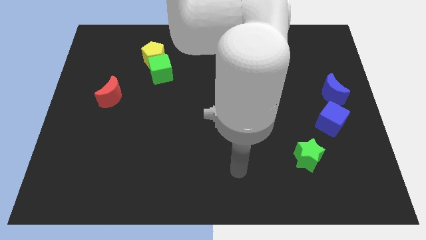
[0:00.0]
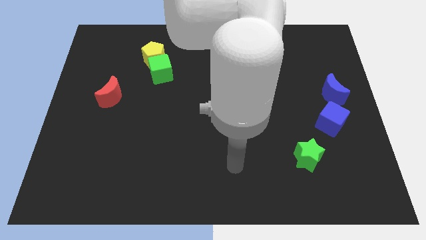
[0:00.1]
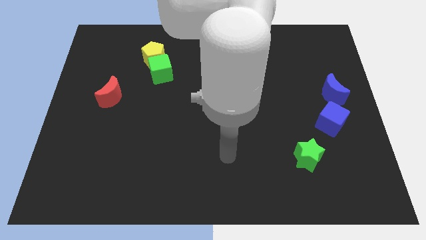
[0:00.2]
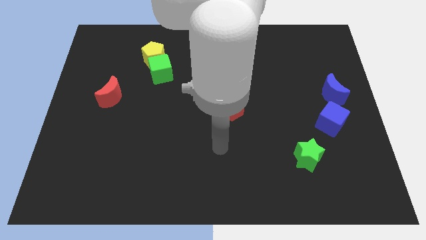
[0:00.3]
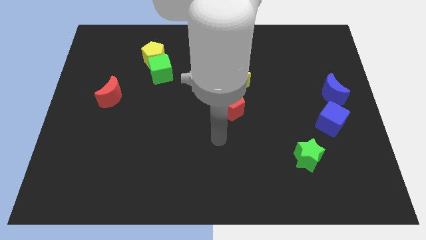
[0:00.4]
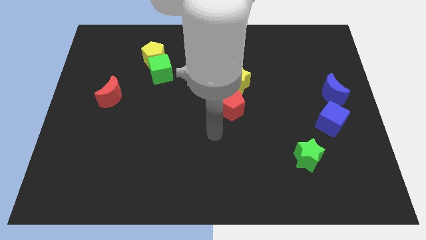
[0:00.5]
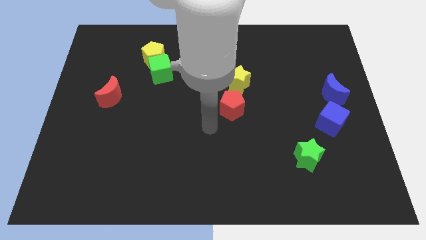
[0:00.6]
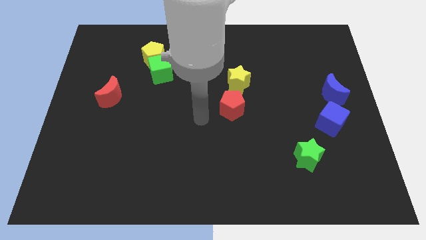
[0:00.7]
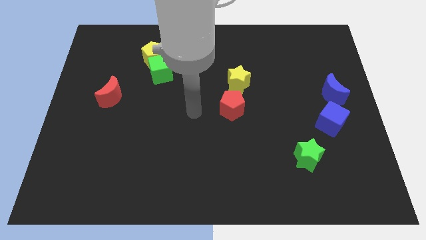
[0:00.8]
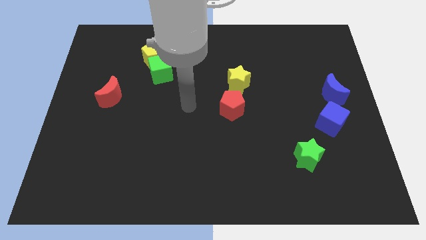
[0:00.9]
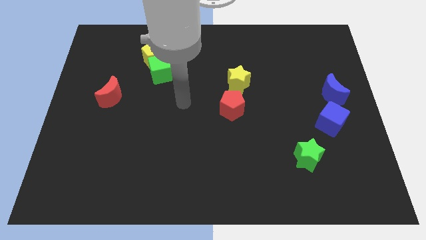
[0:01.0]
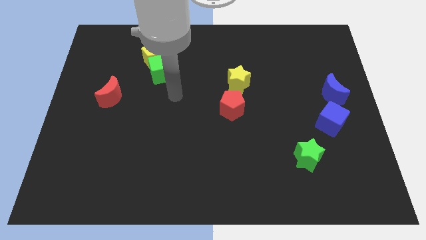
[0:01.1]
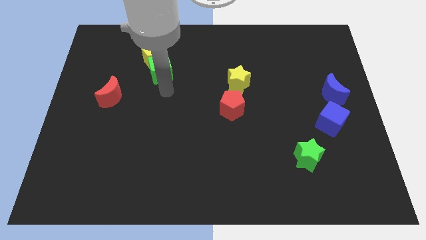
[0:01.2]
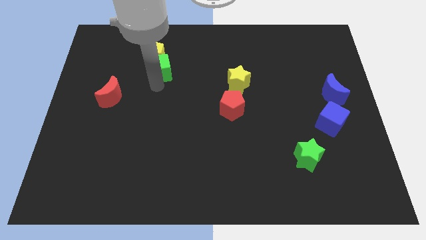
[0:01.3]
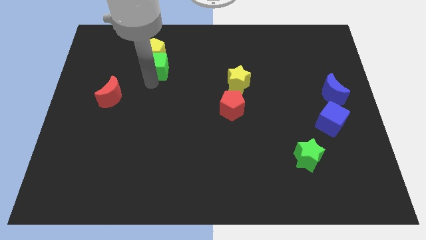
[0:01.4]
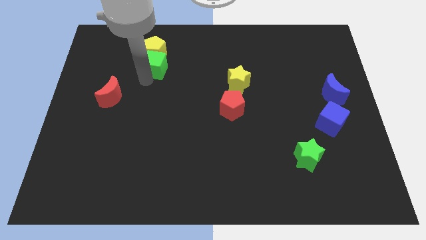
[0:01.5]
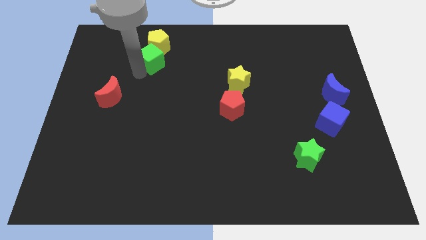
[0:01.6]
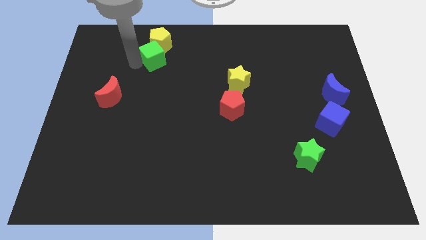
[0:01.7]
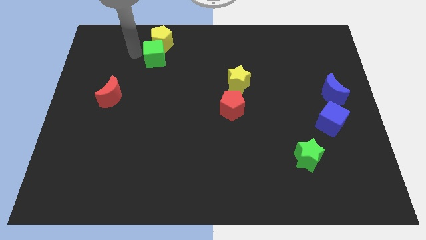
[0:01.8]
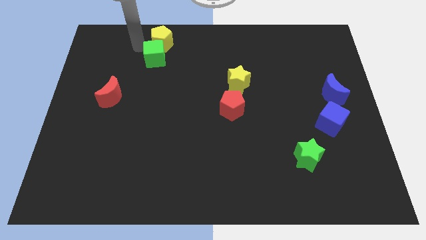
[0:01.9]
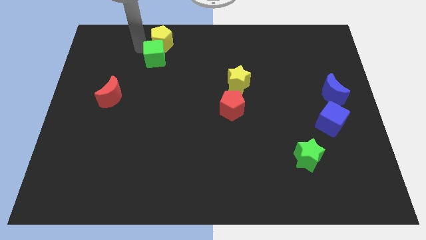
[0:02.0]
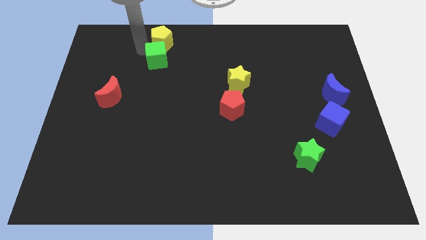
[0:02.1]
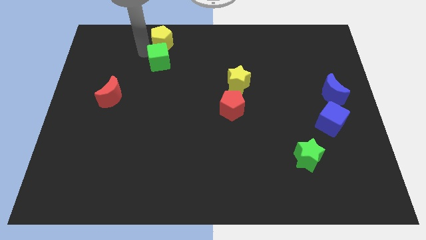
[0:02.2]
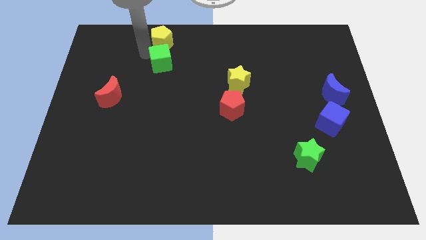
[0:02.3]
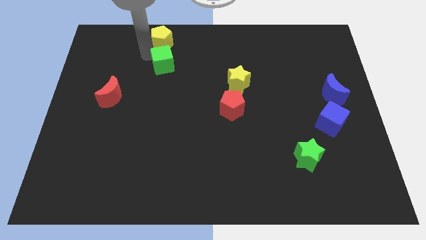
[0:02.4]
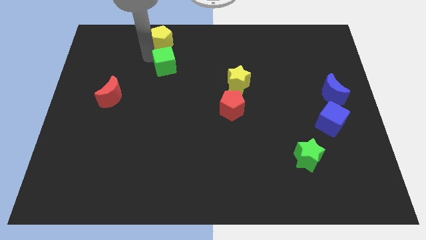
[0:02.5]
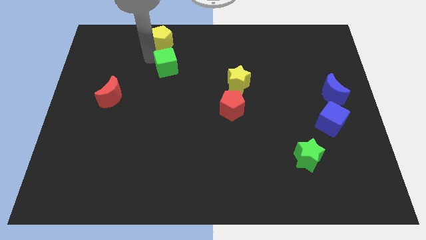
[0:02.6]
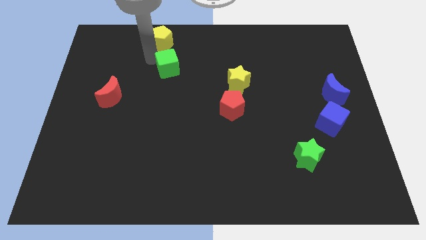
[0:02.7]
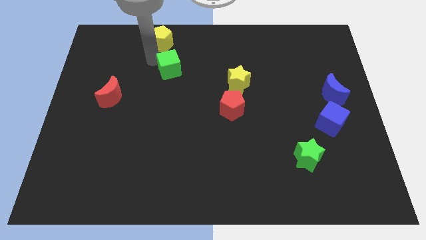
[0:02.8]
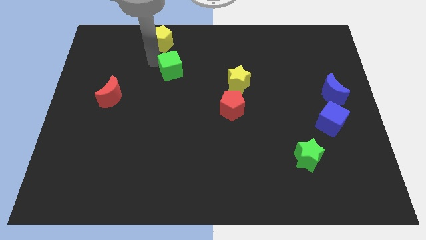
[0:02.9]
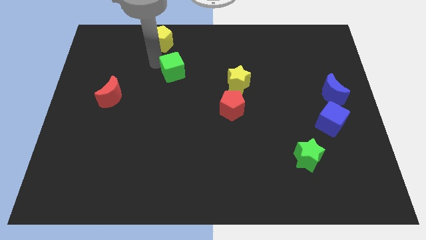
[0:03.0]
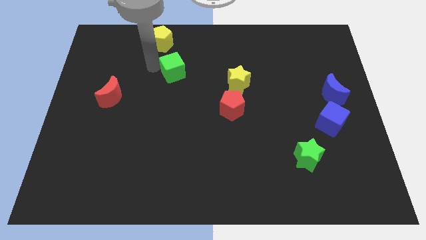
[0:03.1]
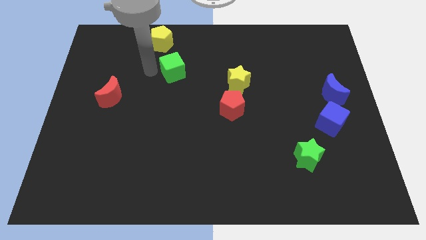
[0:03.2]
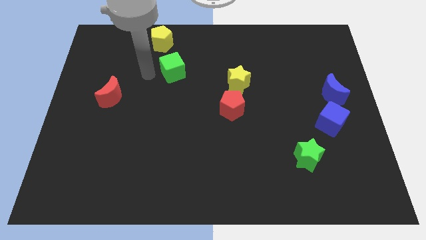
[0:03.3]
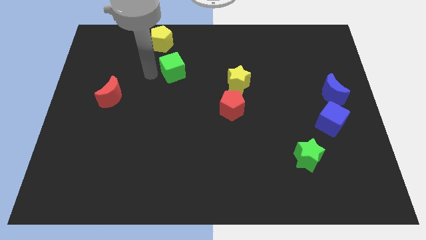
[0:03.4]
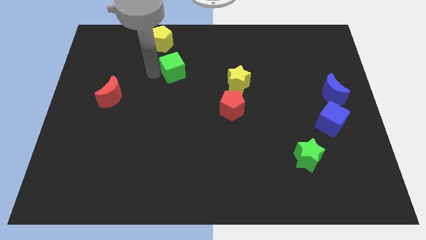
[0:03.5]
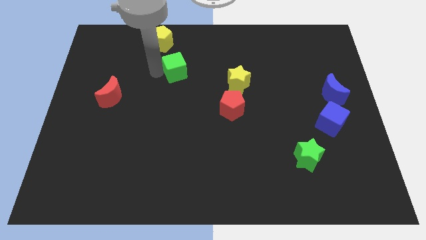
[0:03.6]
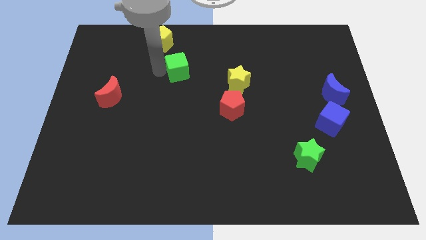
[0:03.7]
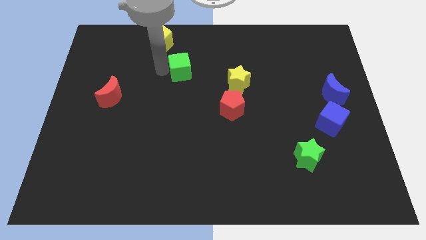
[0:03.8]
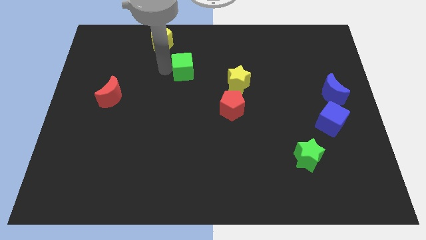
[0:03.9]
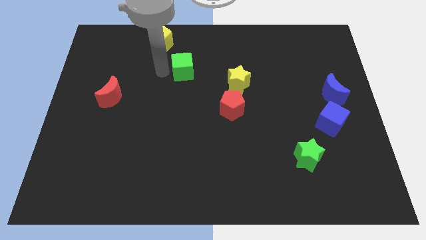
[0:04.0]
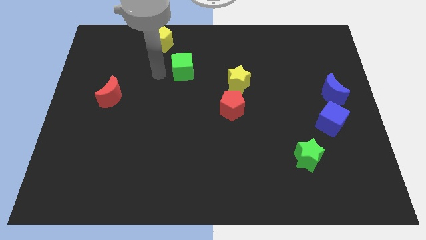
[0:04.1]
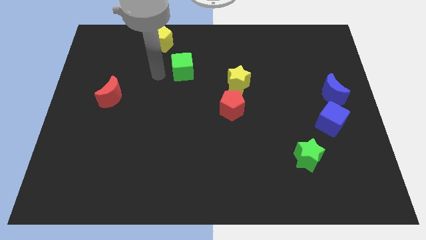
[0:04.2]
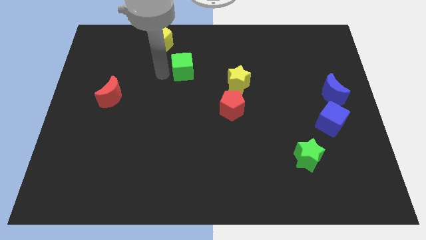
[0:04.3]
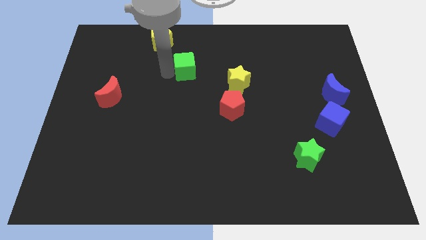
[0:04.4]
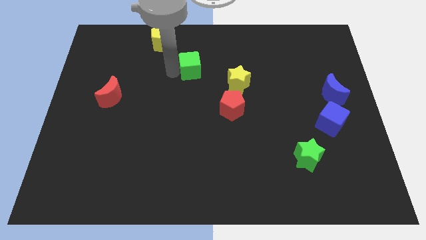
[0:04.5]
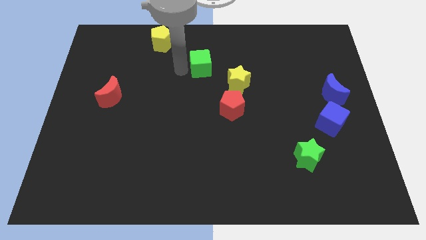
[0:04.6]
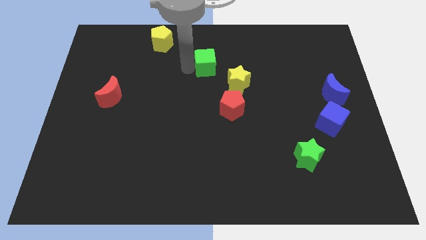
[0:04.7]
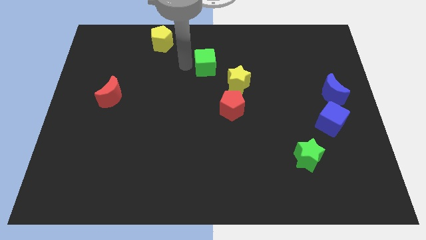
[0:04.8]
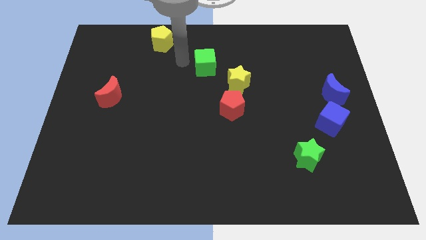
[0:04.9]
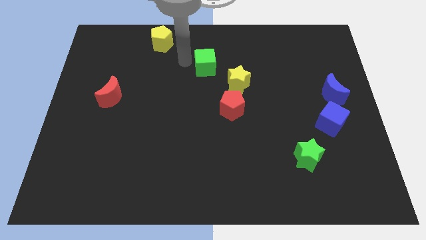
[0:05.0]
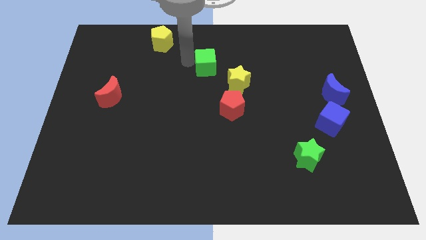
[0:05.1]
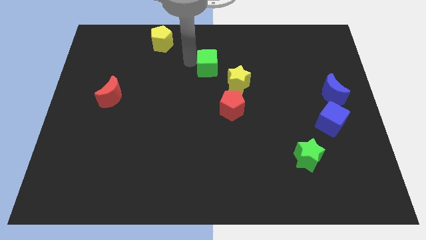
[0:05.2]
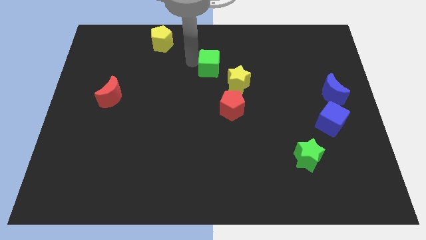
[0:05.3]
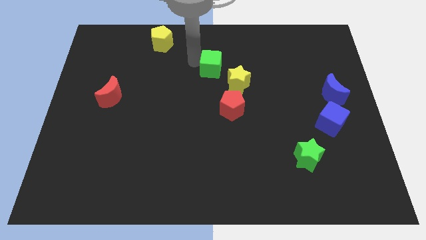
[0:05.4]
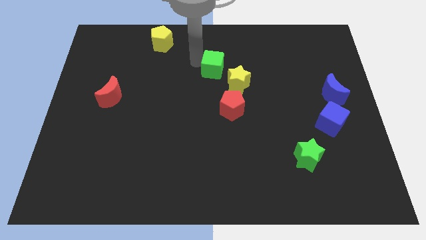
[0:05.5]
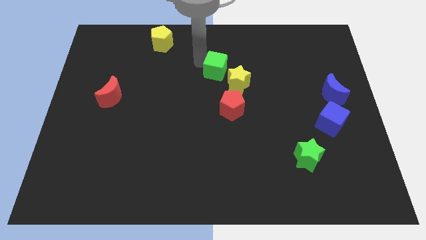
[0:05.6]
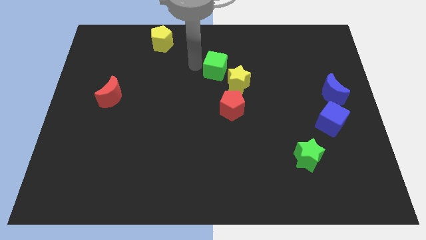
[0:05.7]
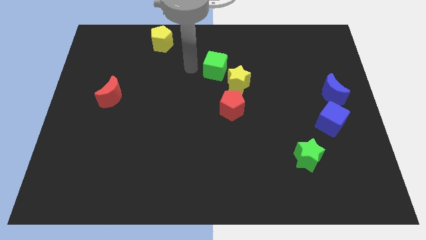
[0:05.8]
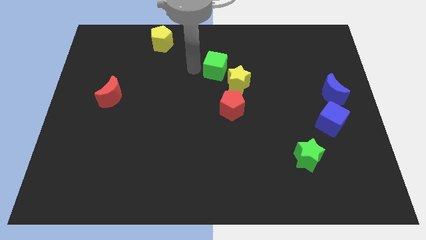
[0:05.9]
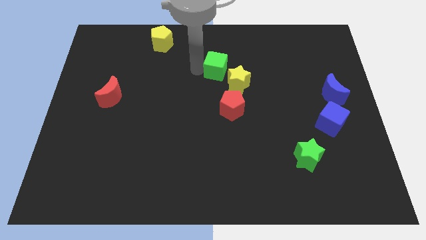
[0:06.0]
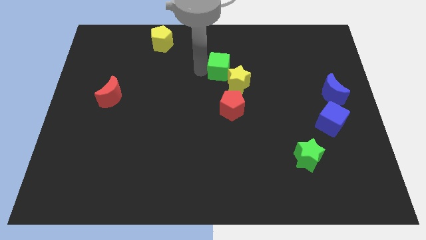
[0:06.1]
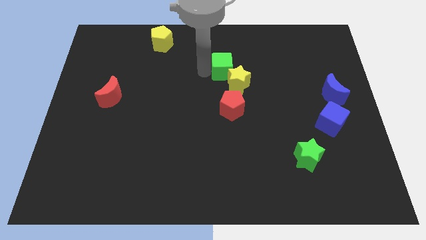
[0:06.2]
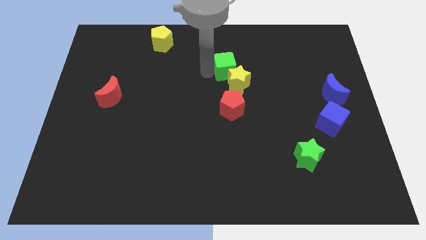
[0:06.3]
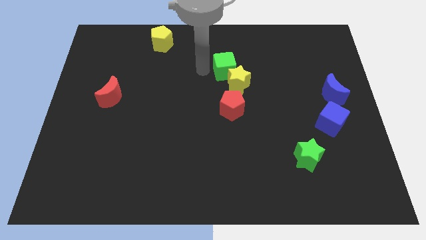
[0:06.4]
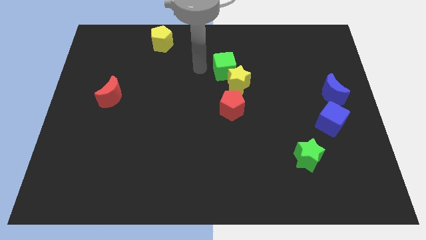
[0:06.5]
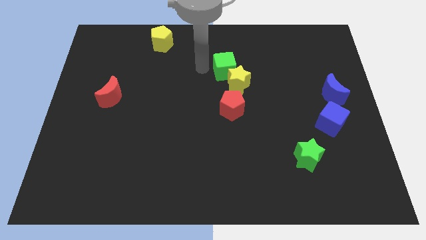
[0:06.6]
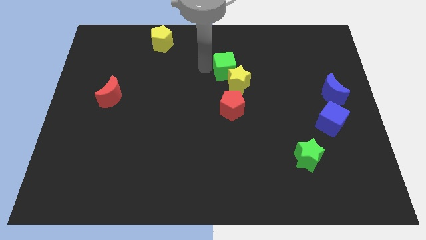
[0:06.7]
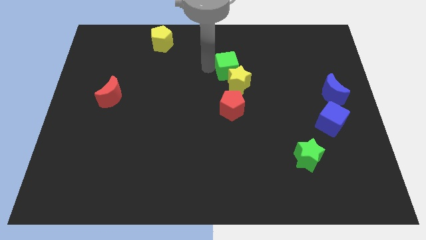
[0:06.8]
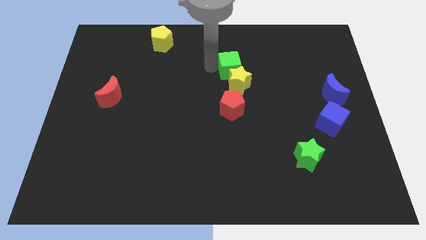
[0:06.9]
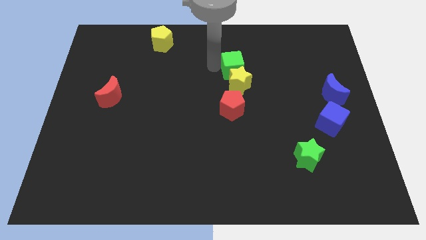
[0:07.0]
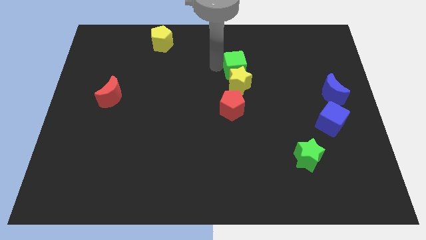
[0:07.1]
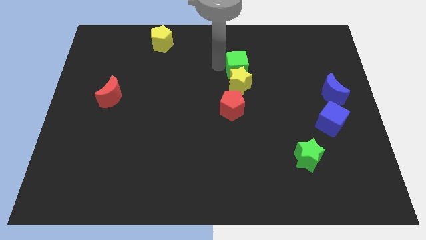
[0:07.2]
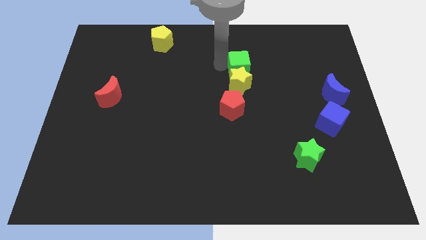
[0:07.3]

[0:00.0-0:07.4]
push the green cube right

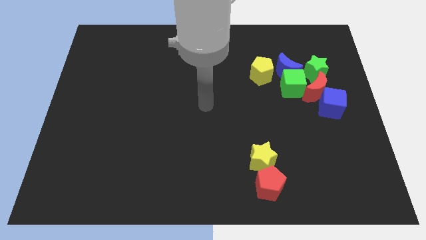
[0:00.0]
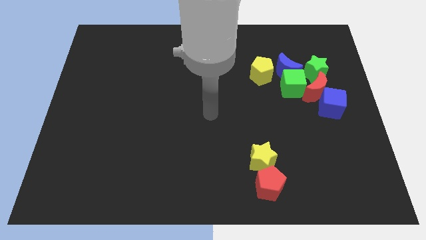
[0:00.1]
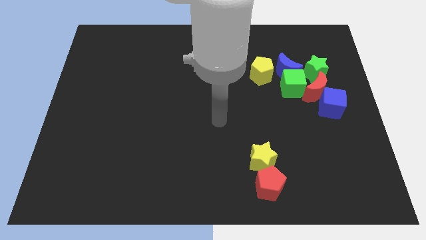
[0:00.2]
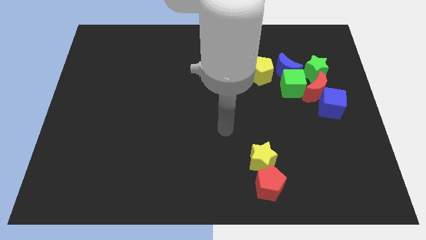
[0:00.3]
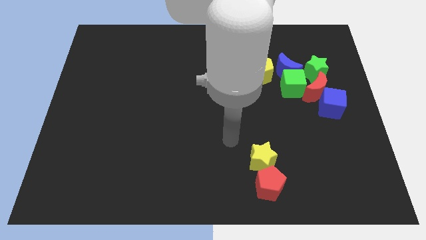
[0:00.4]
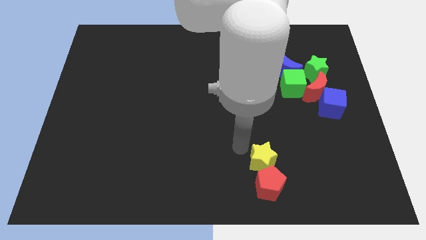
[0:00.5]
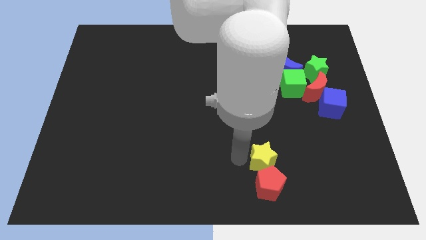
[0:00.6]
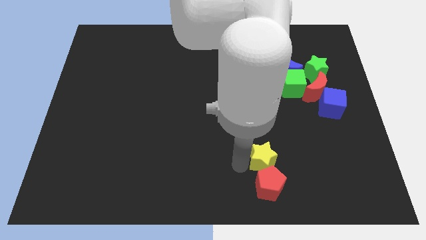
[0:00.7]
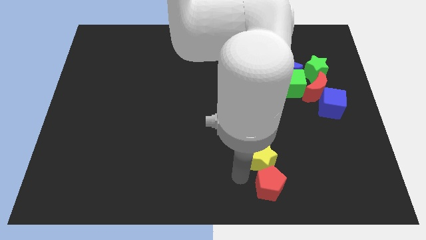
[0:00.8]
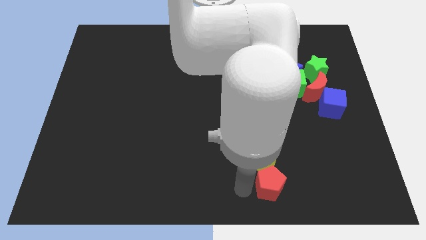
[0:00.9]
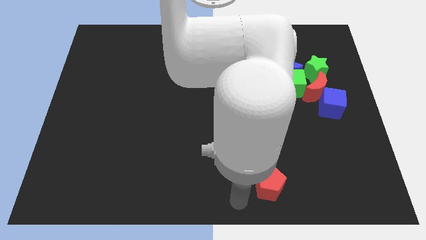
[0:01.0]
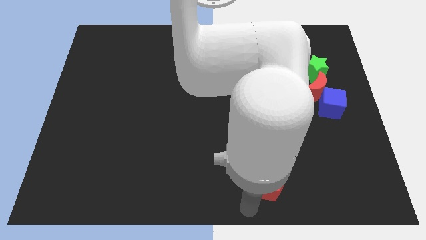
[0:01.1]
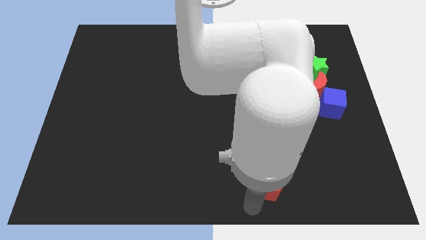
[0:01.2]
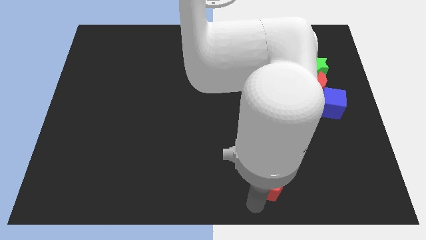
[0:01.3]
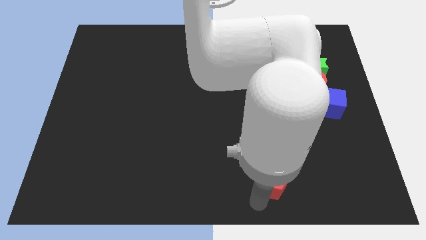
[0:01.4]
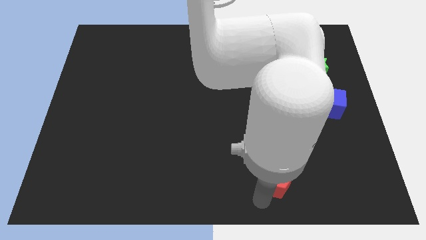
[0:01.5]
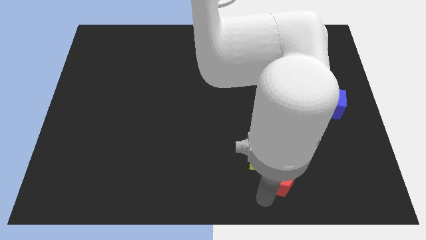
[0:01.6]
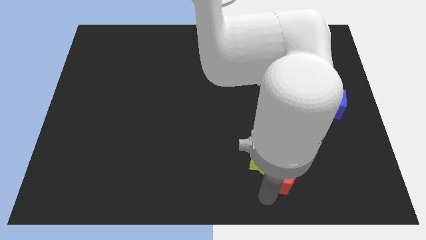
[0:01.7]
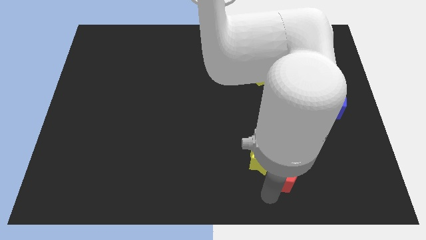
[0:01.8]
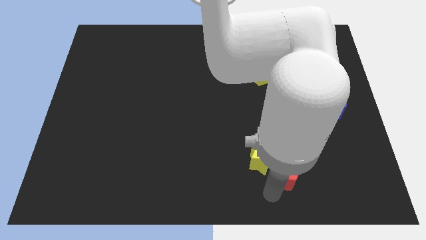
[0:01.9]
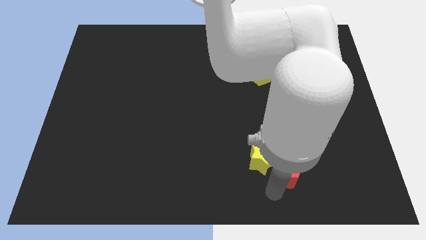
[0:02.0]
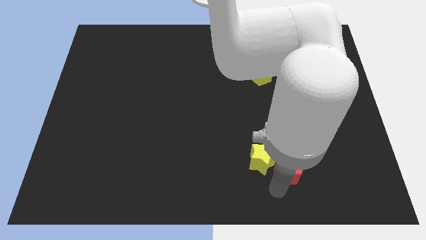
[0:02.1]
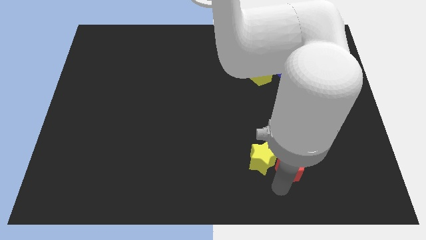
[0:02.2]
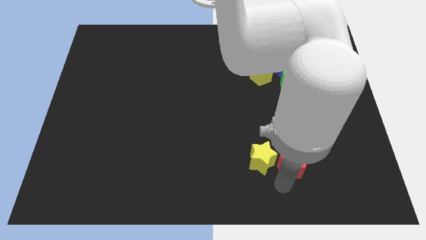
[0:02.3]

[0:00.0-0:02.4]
slightly push the red pentagon up and then right
